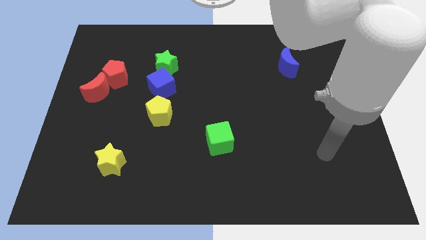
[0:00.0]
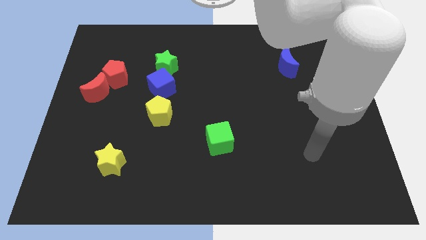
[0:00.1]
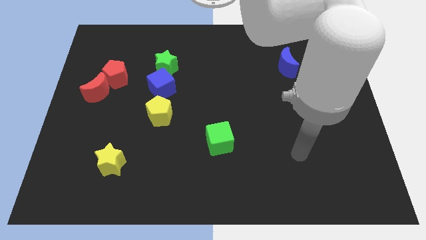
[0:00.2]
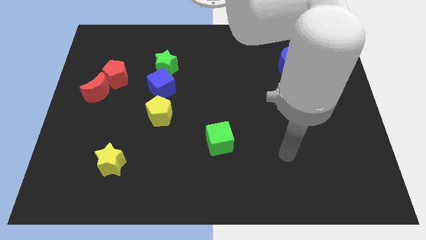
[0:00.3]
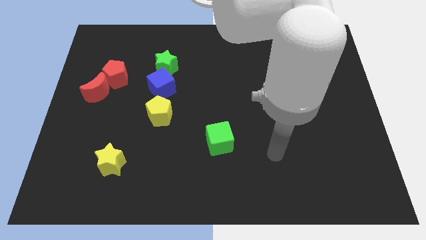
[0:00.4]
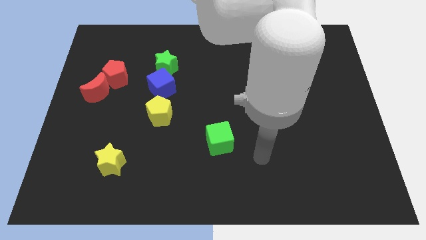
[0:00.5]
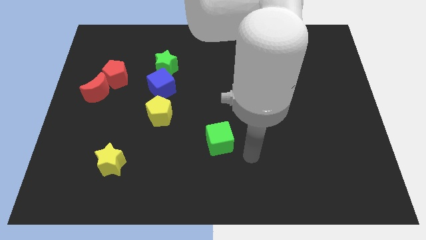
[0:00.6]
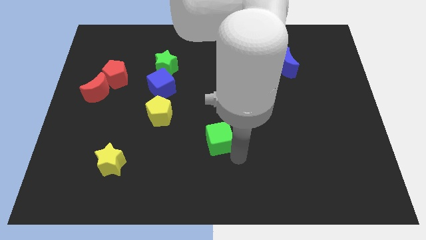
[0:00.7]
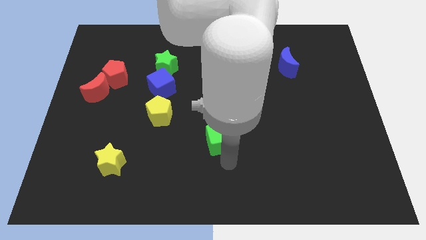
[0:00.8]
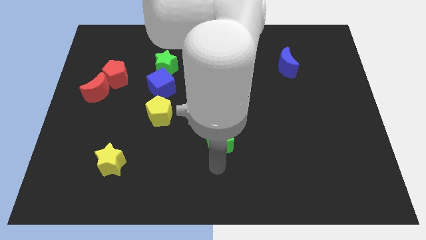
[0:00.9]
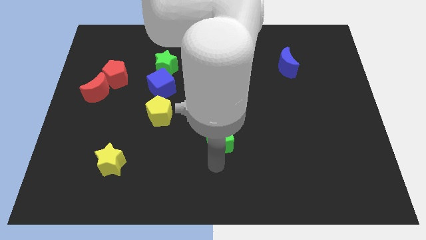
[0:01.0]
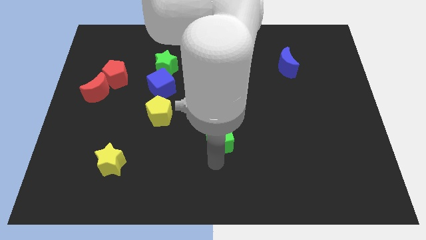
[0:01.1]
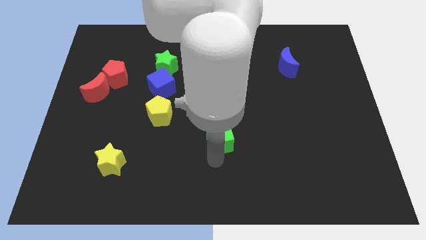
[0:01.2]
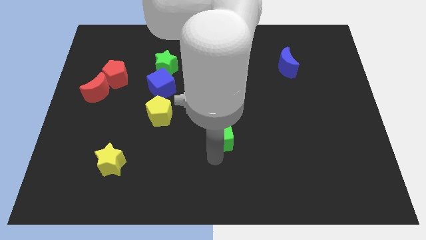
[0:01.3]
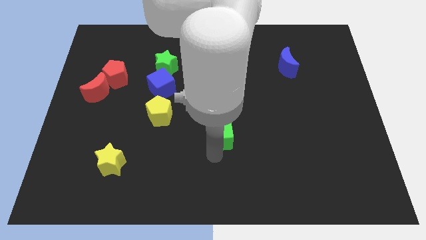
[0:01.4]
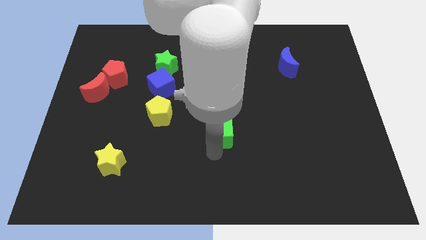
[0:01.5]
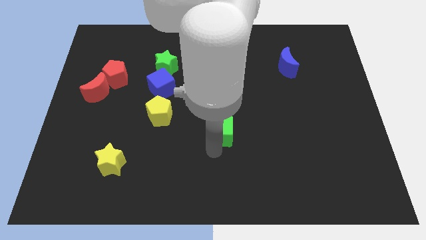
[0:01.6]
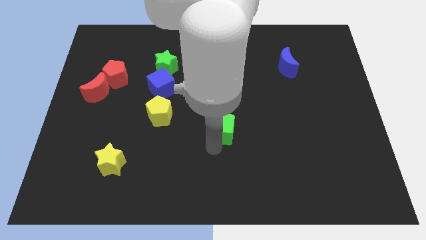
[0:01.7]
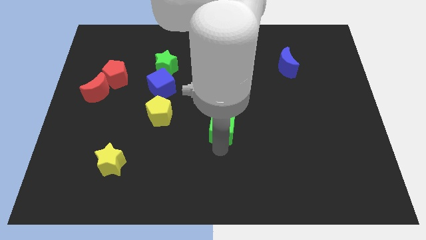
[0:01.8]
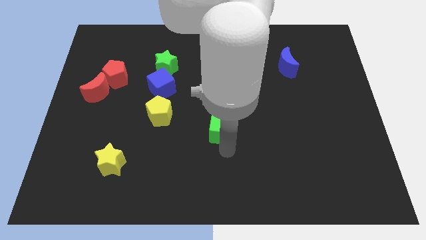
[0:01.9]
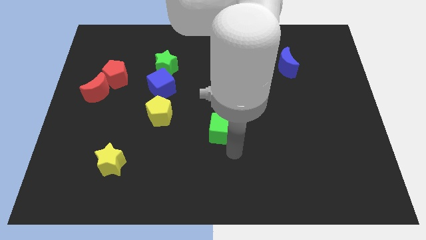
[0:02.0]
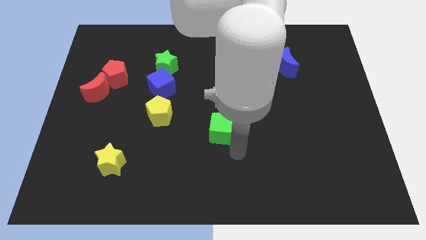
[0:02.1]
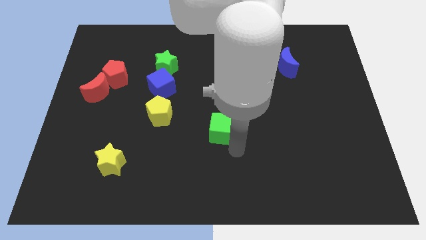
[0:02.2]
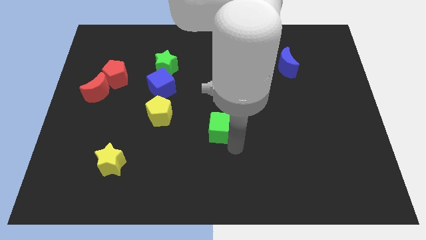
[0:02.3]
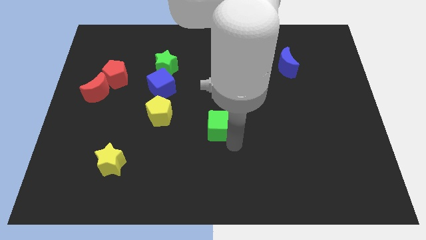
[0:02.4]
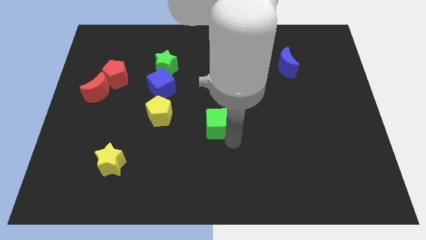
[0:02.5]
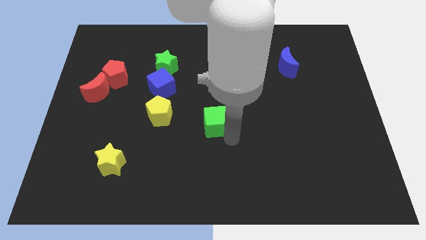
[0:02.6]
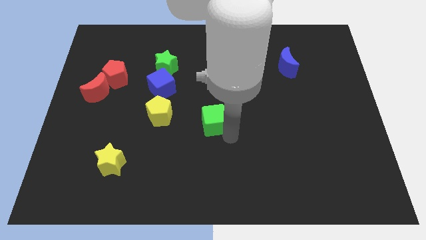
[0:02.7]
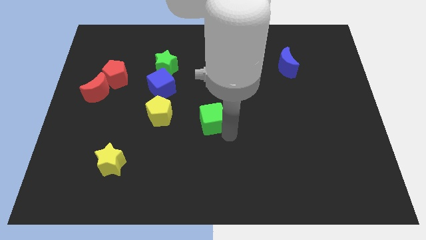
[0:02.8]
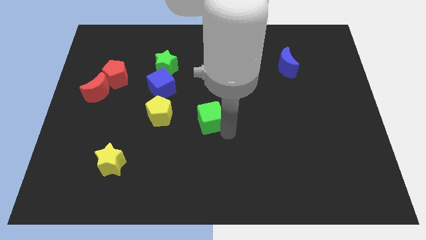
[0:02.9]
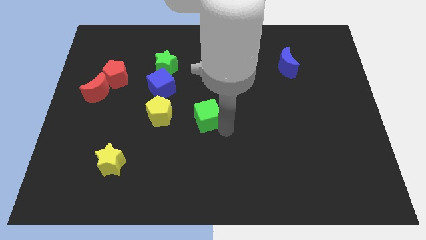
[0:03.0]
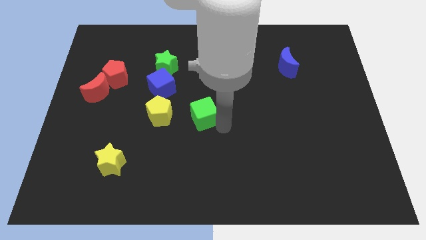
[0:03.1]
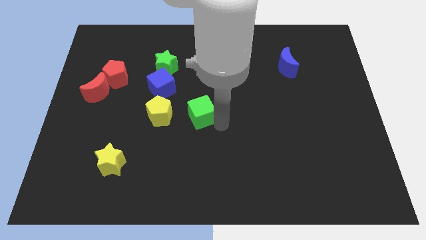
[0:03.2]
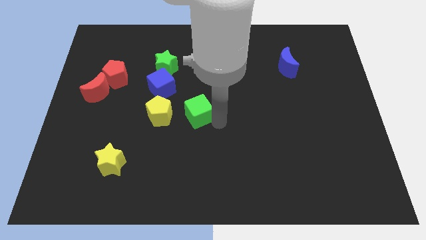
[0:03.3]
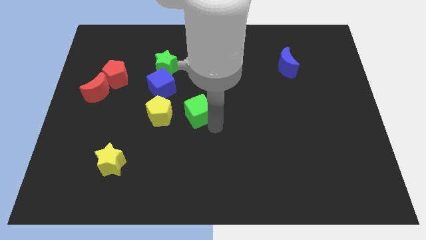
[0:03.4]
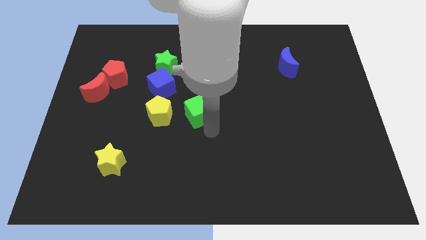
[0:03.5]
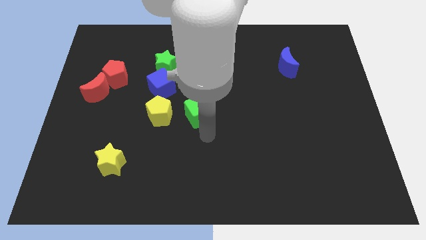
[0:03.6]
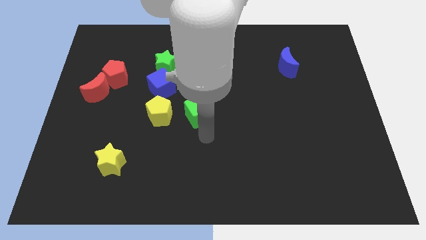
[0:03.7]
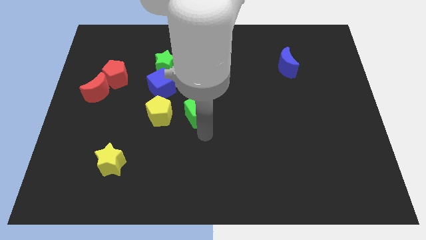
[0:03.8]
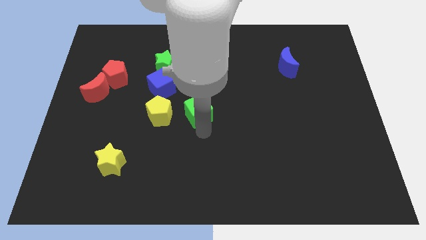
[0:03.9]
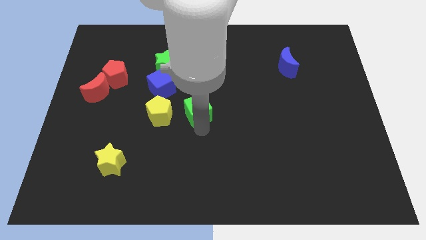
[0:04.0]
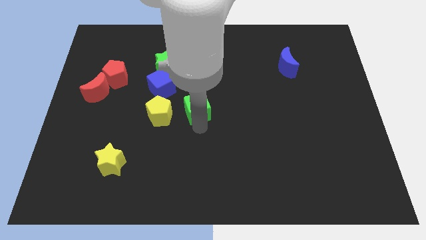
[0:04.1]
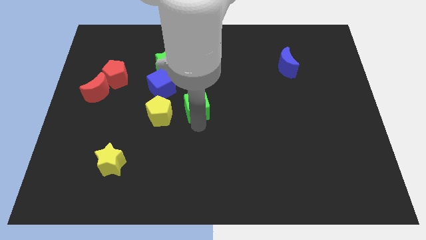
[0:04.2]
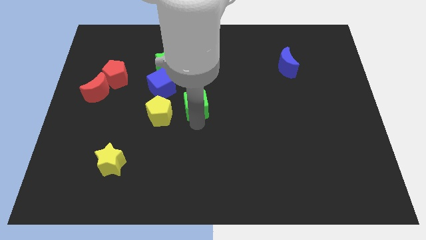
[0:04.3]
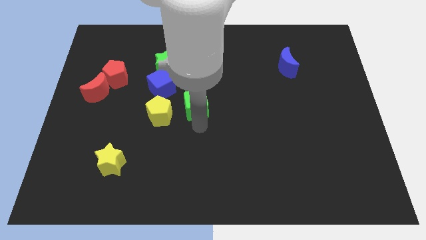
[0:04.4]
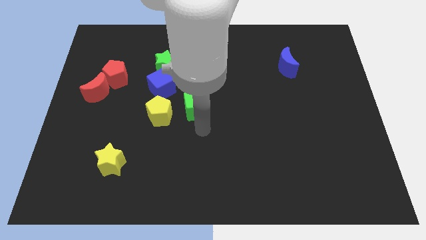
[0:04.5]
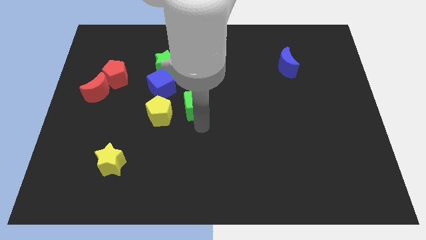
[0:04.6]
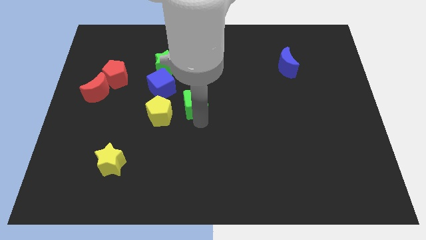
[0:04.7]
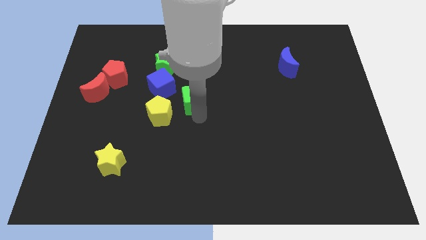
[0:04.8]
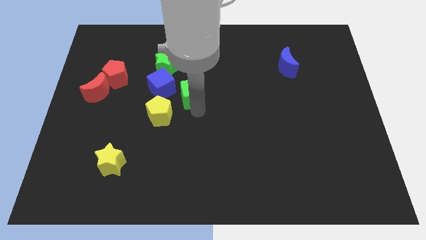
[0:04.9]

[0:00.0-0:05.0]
push the green cube to the bottom right of the green star

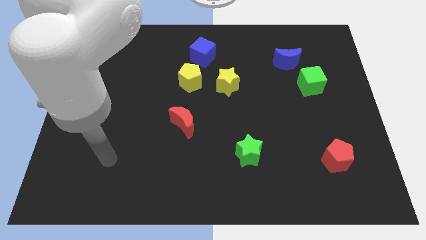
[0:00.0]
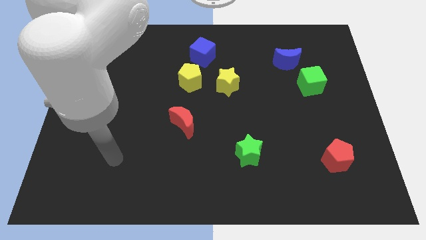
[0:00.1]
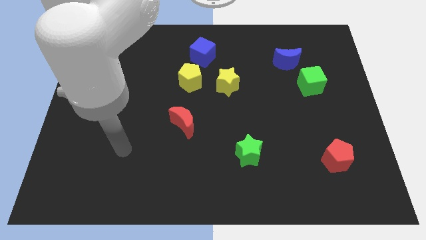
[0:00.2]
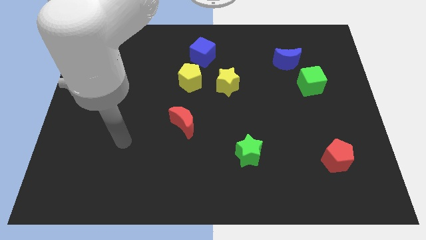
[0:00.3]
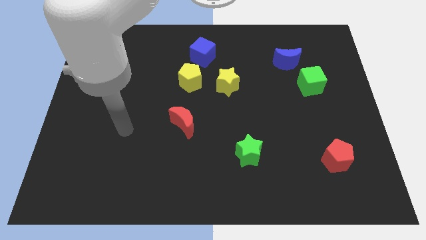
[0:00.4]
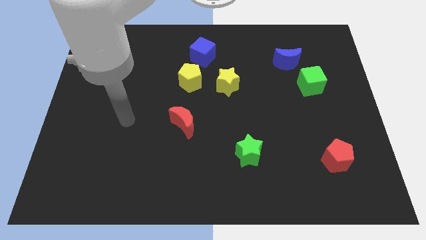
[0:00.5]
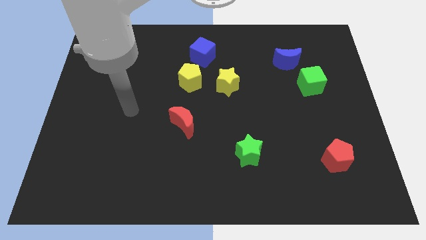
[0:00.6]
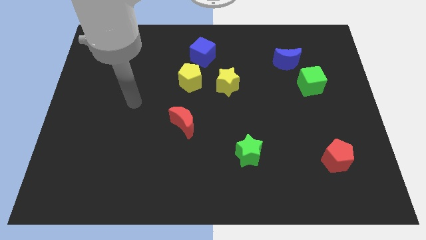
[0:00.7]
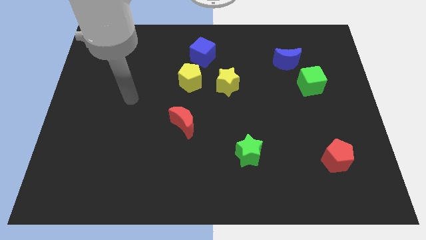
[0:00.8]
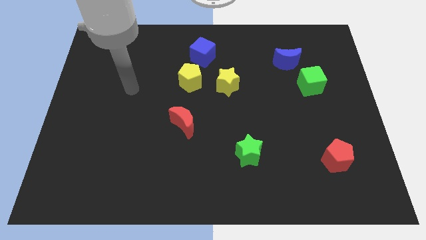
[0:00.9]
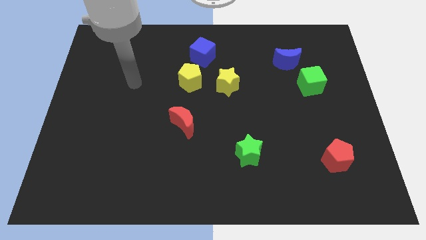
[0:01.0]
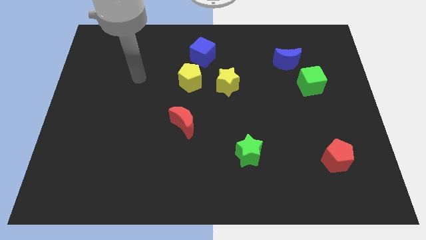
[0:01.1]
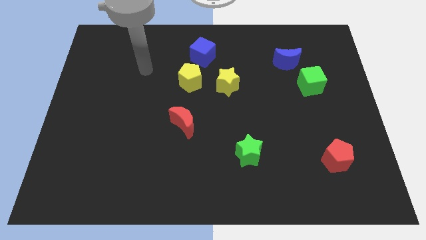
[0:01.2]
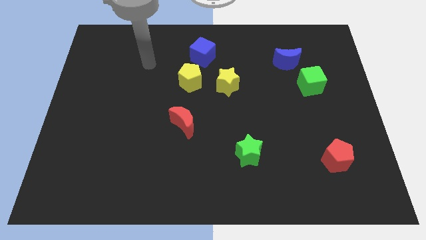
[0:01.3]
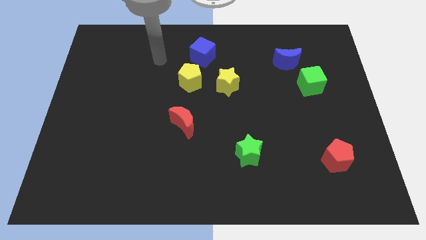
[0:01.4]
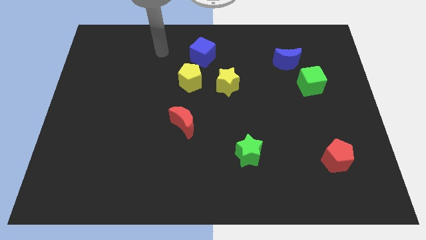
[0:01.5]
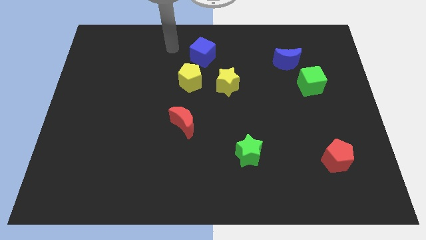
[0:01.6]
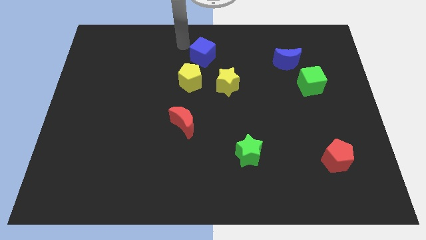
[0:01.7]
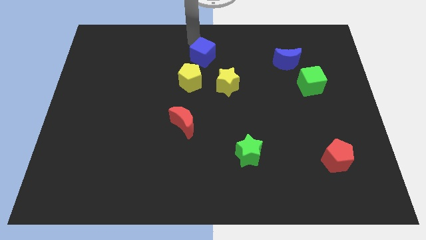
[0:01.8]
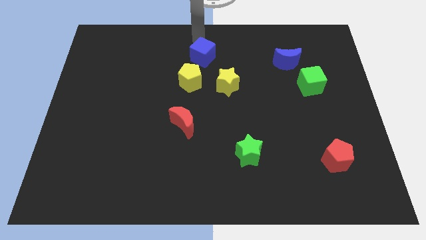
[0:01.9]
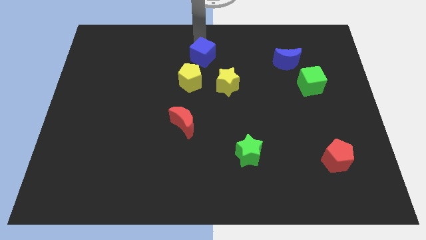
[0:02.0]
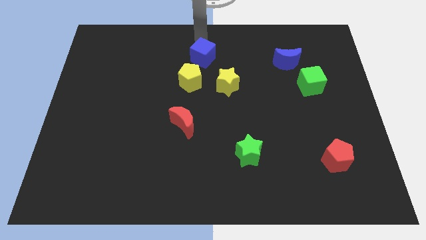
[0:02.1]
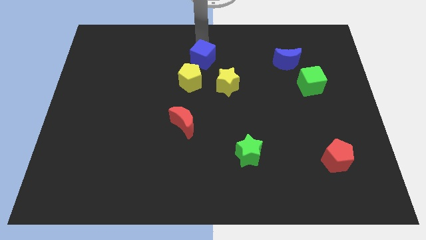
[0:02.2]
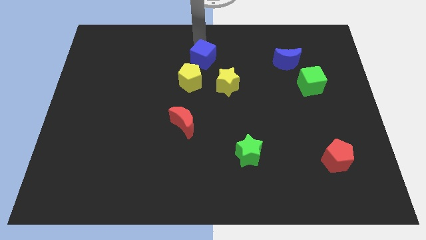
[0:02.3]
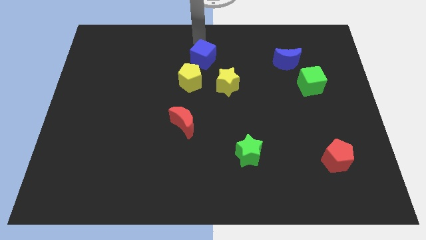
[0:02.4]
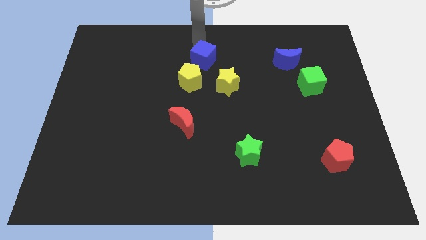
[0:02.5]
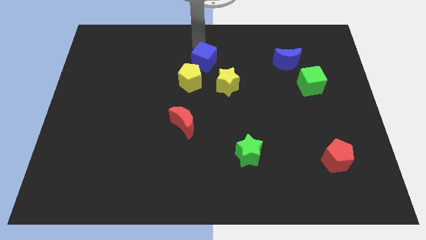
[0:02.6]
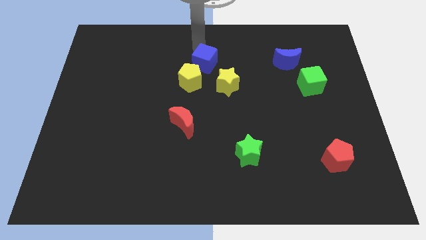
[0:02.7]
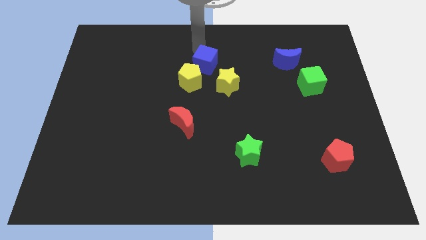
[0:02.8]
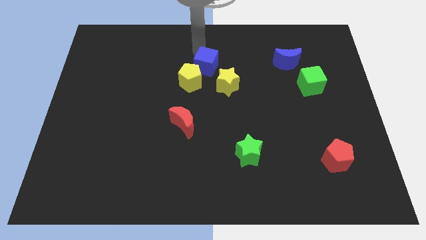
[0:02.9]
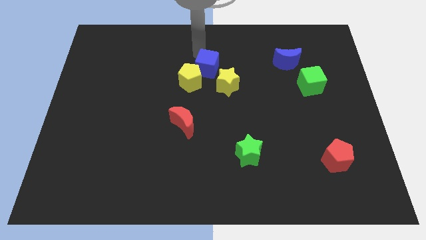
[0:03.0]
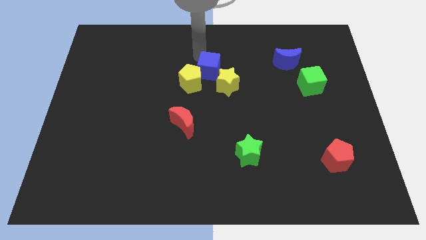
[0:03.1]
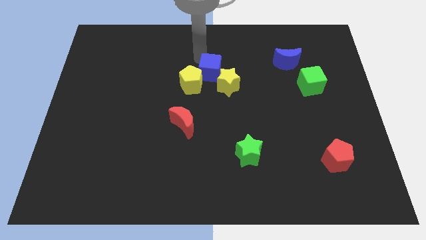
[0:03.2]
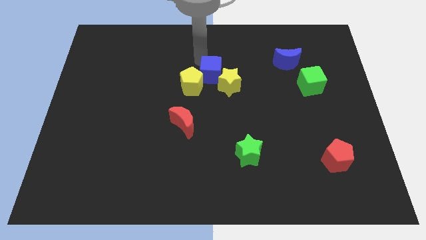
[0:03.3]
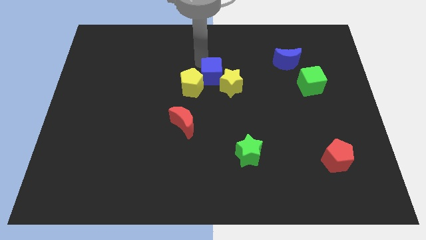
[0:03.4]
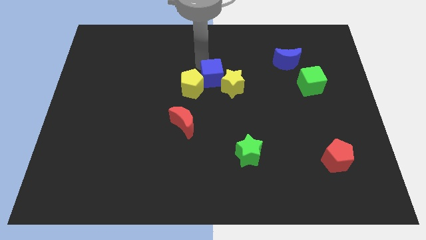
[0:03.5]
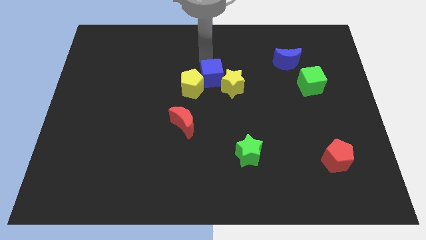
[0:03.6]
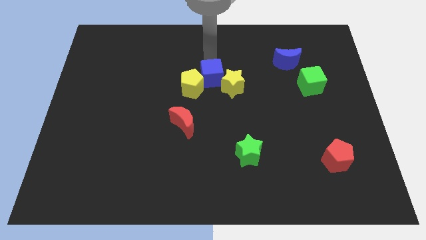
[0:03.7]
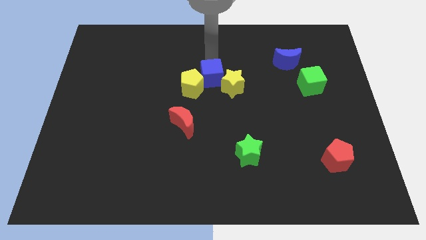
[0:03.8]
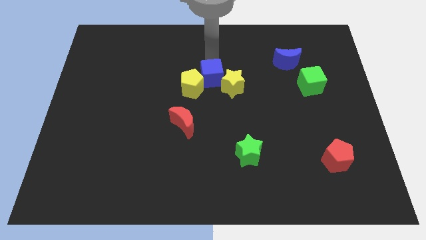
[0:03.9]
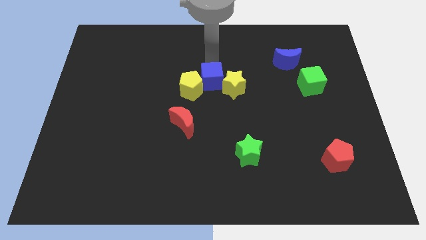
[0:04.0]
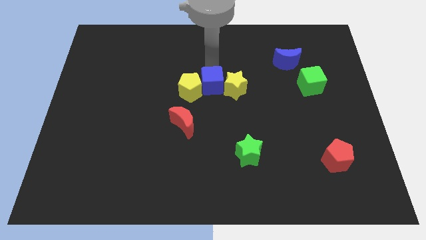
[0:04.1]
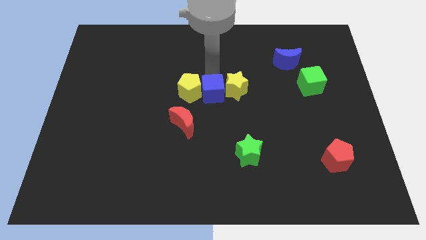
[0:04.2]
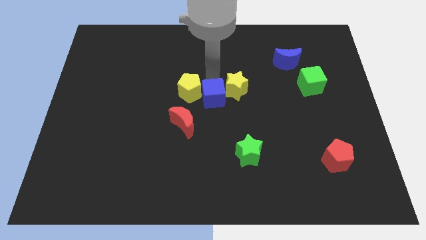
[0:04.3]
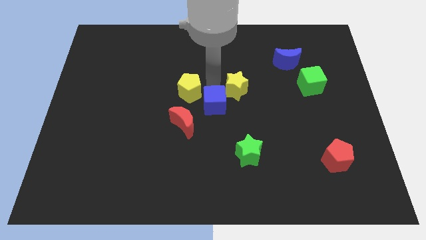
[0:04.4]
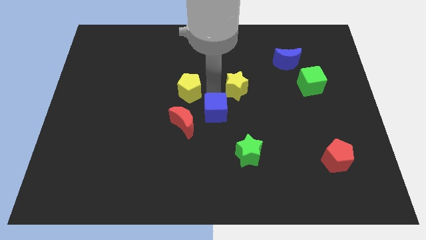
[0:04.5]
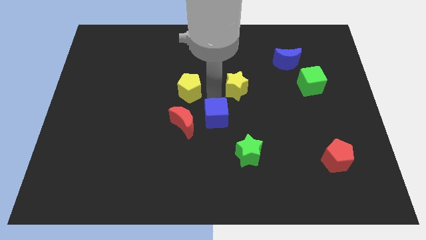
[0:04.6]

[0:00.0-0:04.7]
put the blue cube to the top left side of the green star
